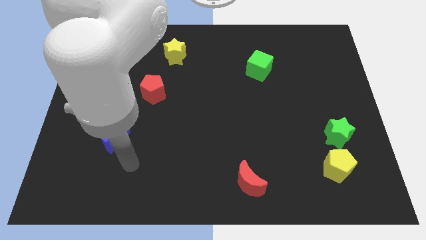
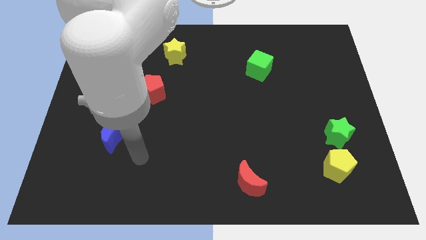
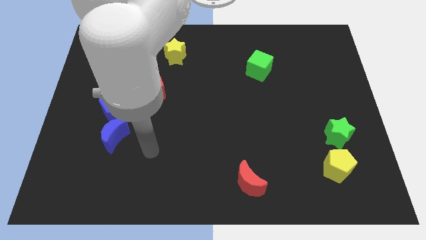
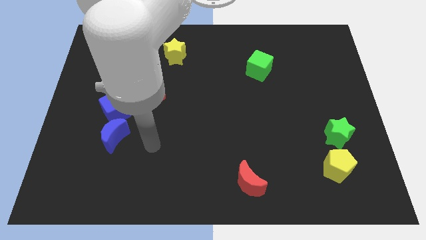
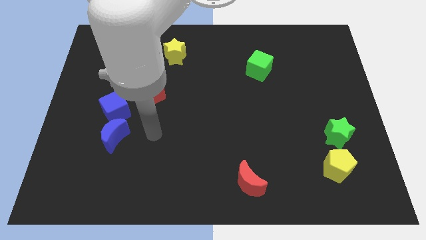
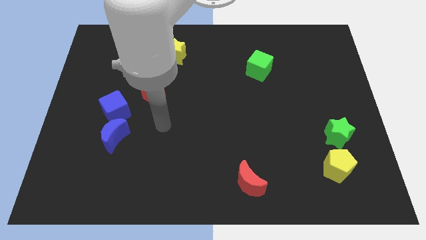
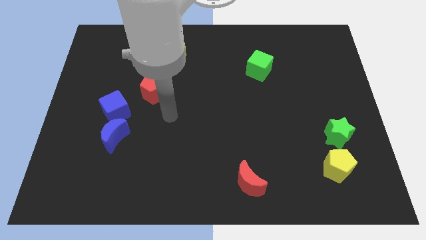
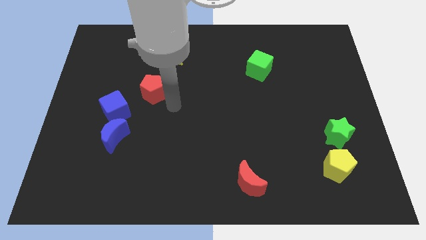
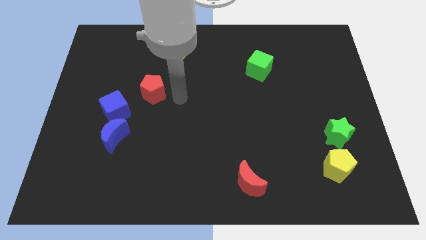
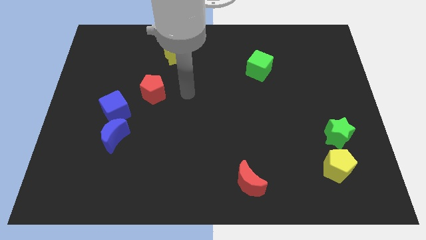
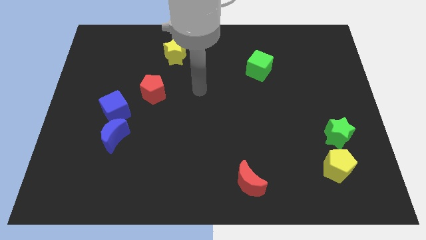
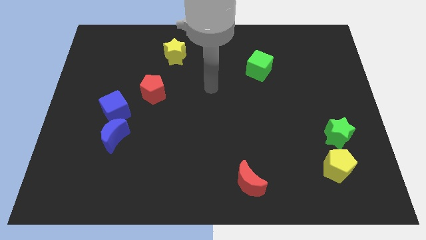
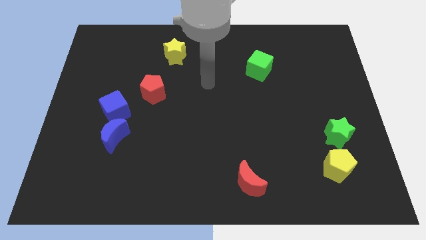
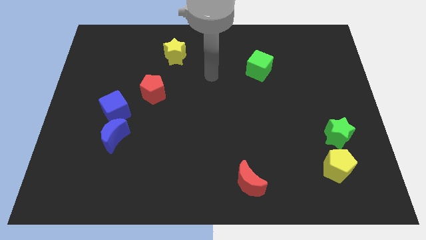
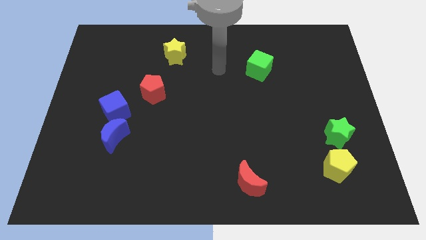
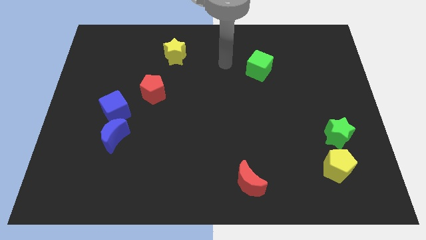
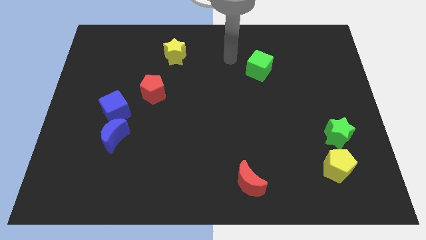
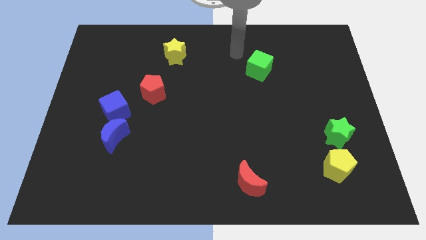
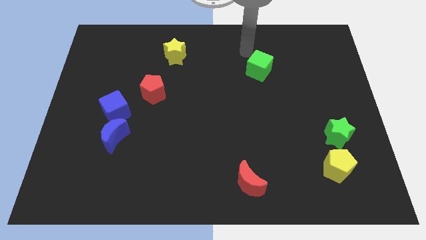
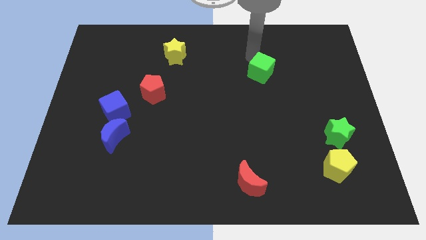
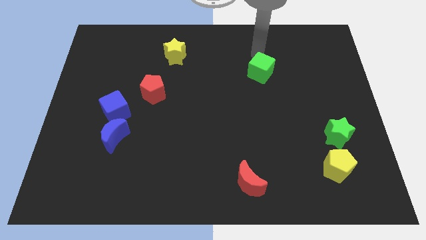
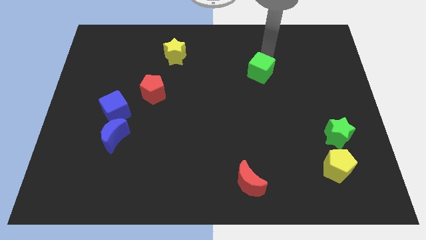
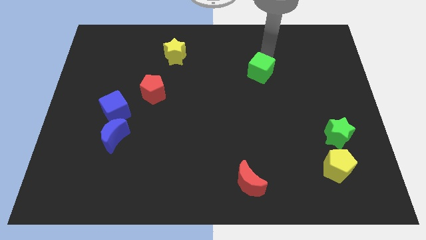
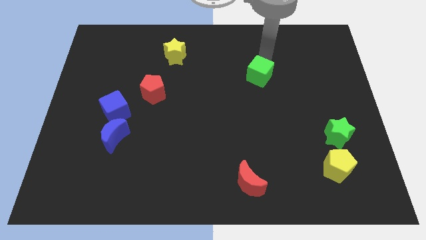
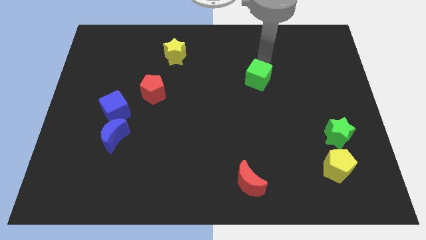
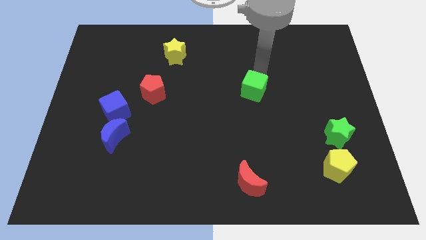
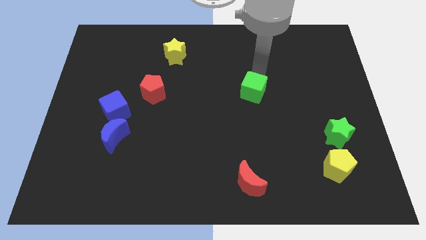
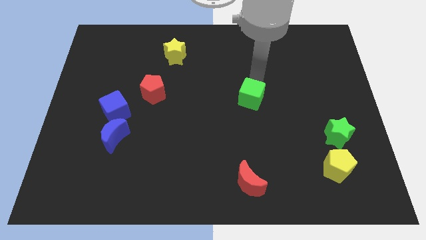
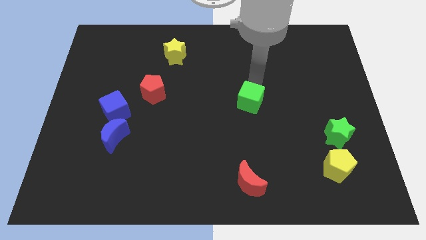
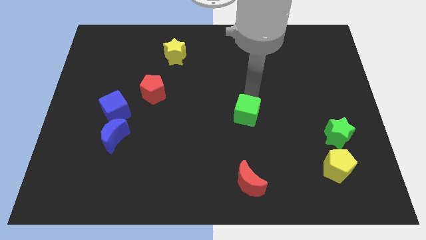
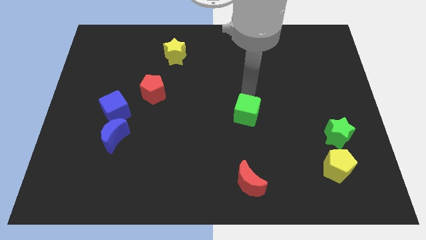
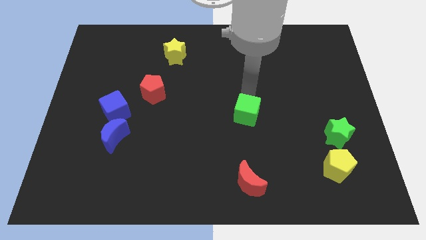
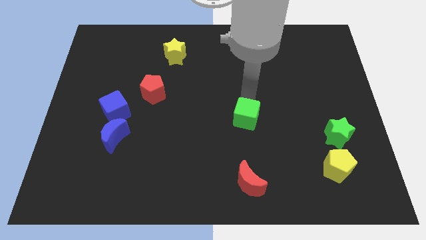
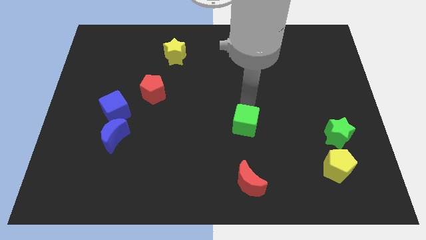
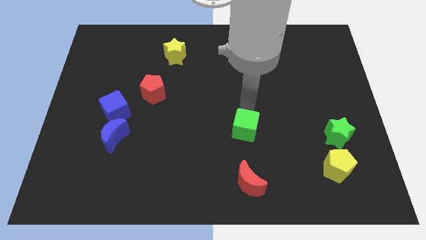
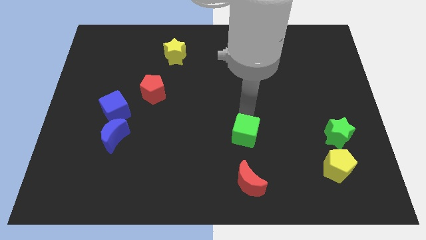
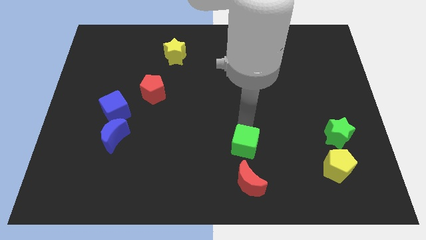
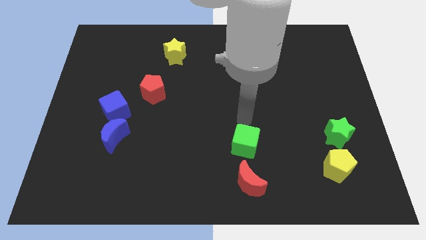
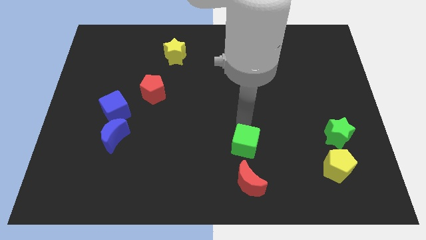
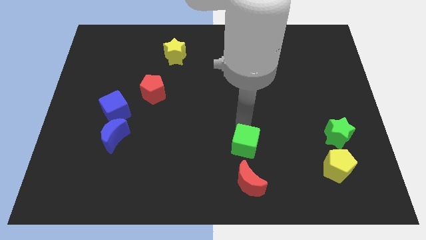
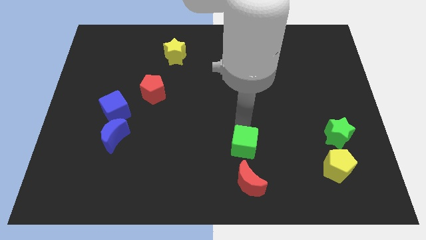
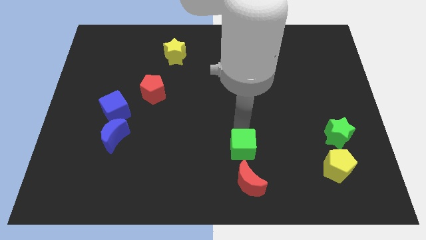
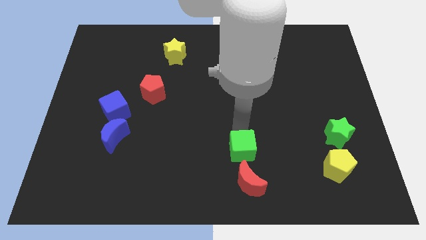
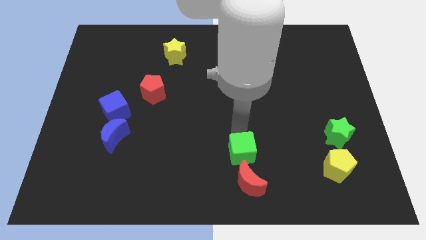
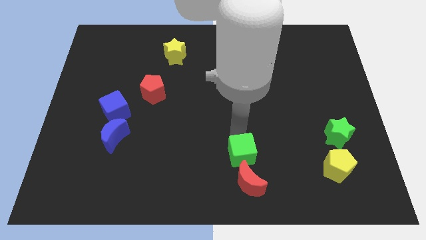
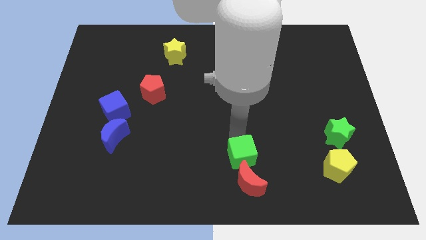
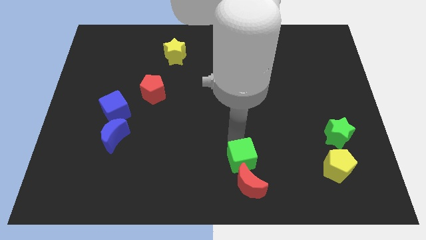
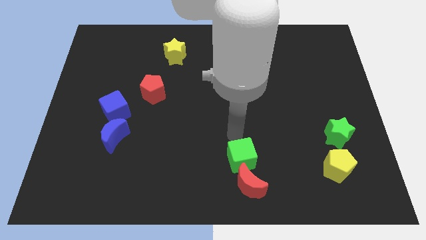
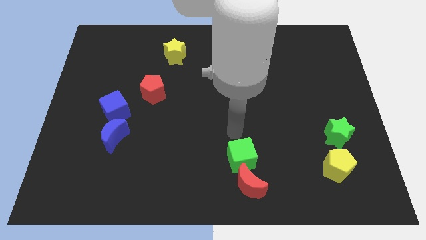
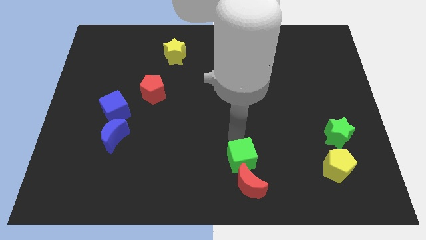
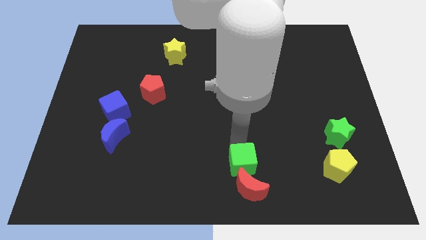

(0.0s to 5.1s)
move the green cube to the red moon

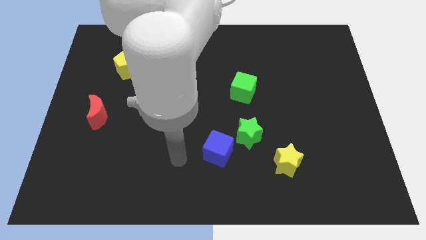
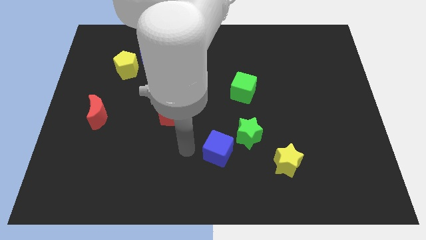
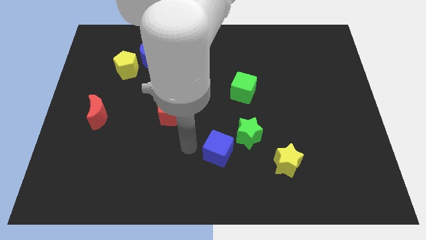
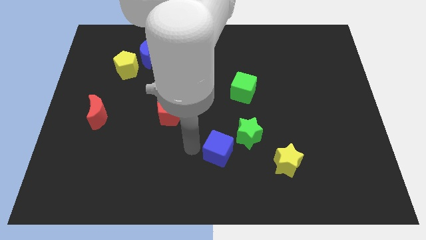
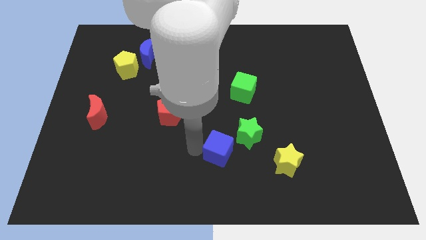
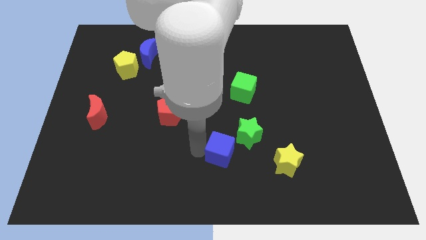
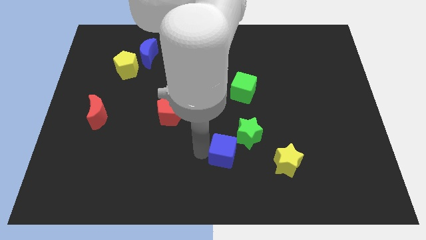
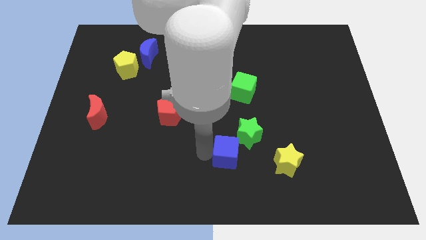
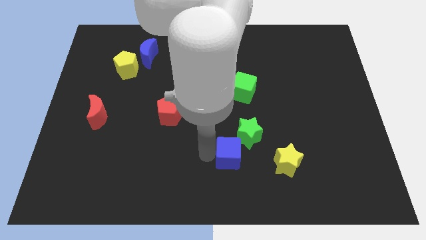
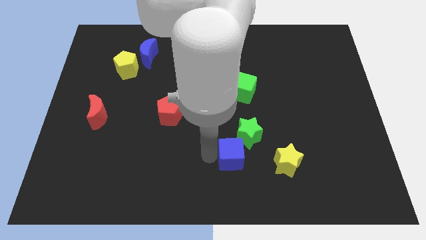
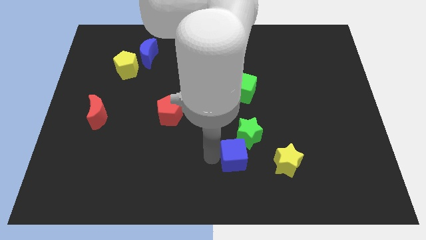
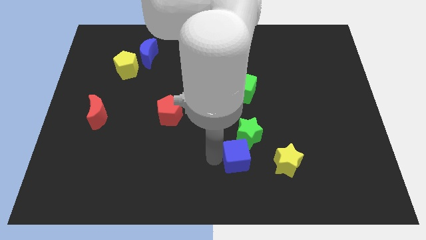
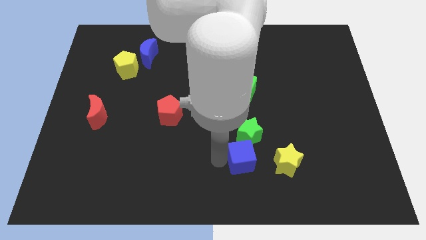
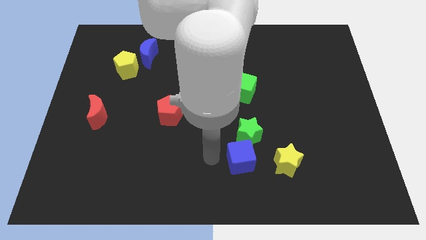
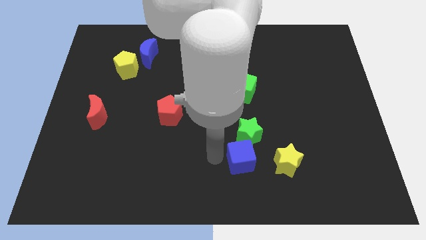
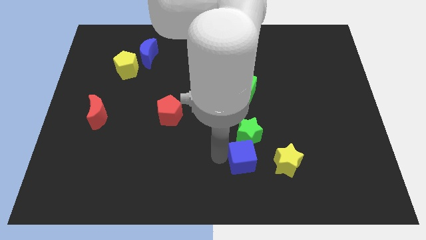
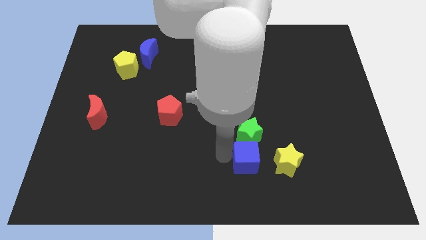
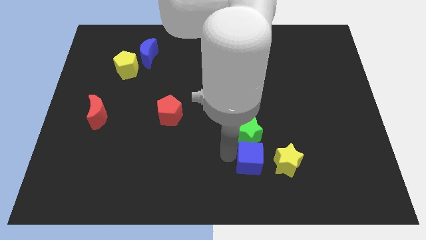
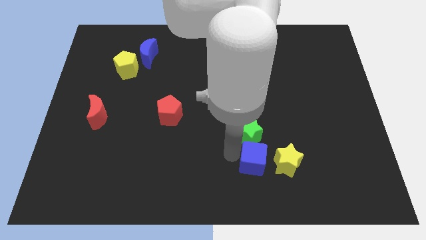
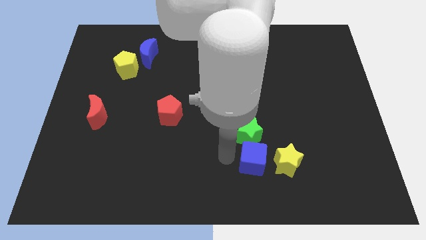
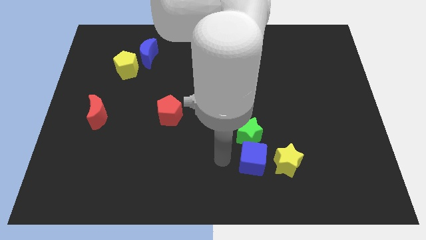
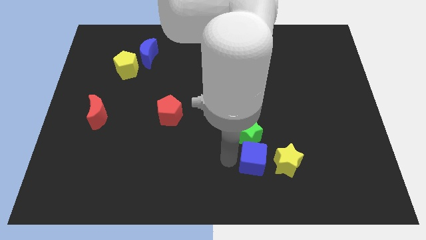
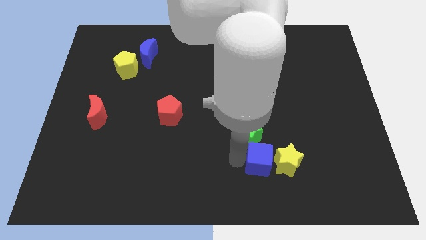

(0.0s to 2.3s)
push the blue cube next to the yellow star
